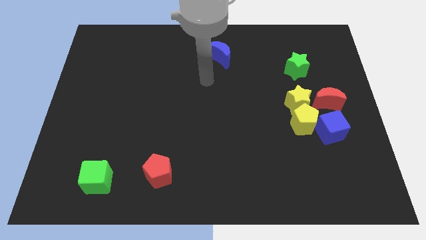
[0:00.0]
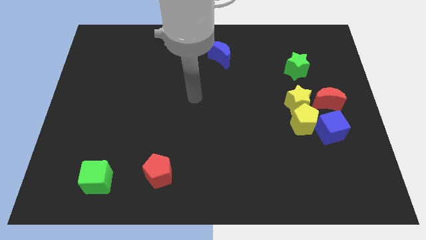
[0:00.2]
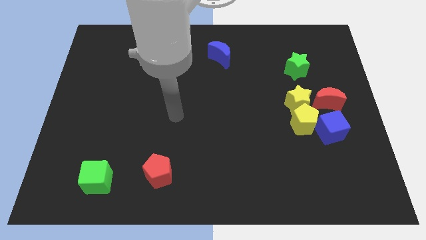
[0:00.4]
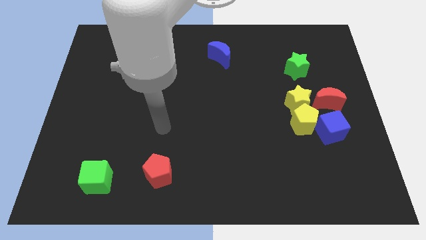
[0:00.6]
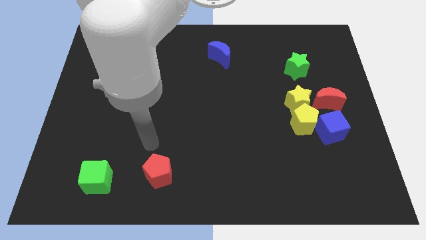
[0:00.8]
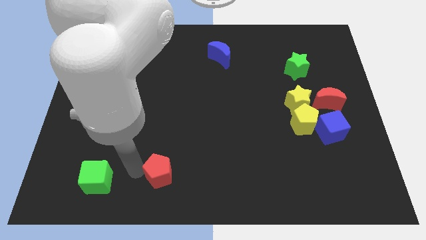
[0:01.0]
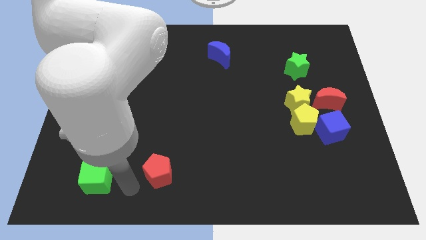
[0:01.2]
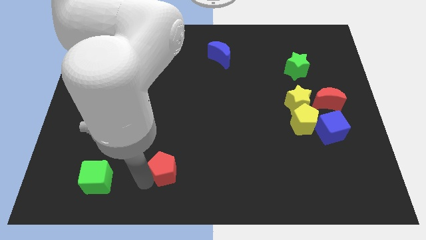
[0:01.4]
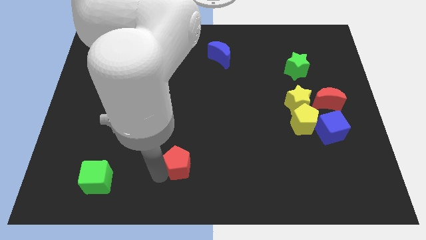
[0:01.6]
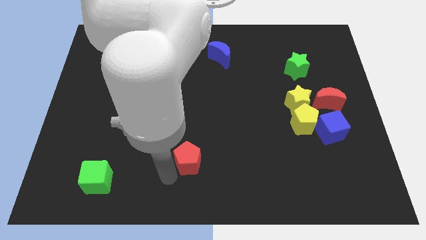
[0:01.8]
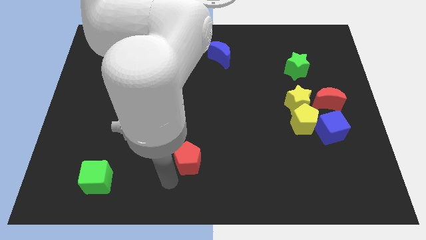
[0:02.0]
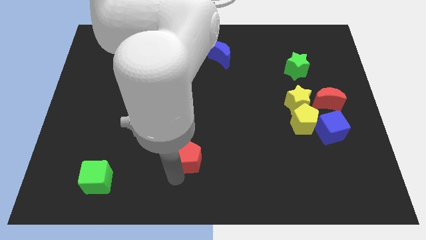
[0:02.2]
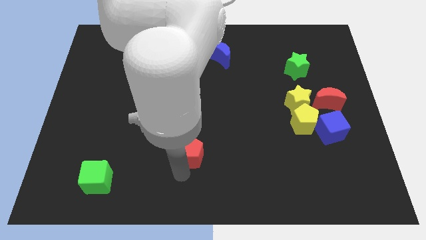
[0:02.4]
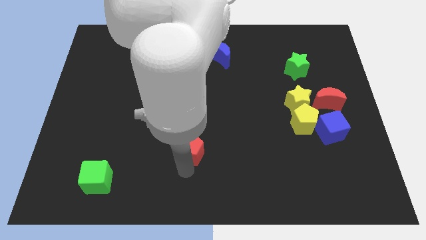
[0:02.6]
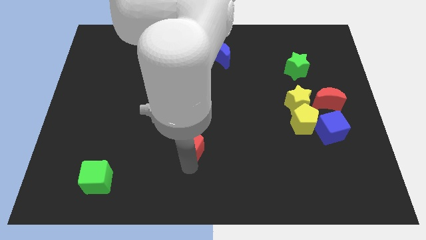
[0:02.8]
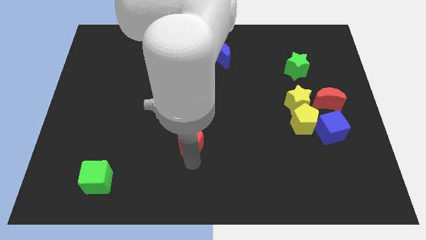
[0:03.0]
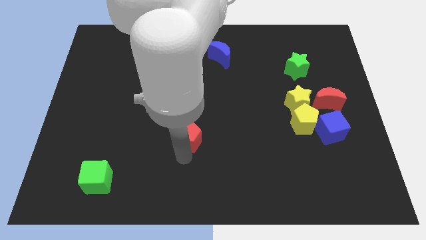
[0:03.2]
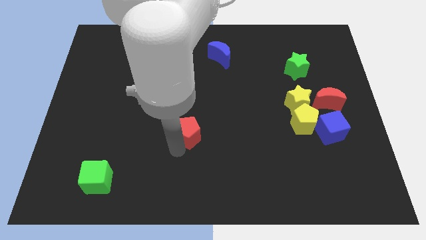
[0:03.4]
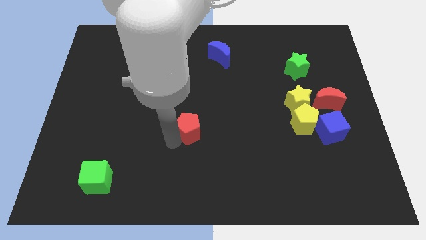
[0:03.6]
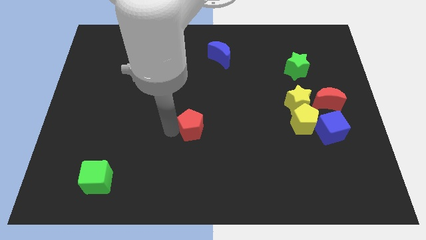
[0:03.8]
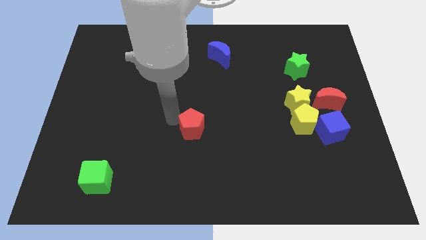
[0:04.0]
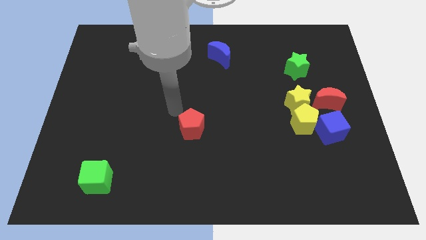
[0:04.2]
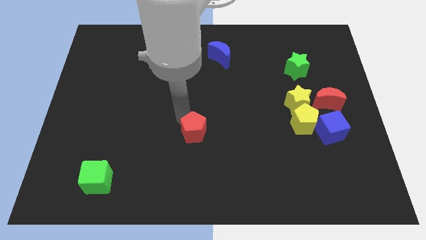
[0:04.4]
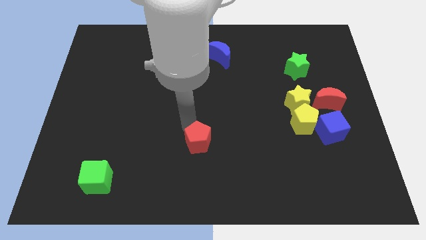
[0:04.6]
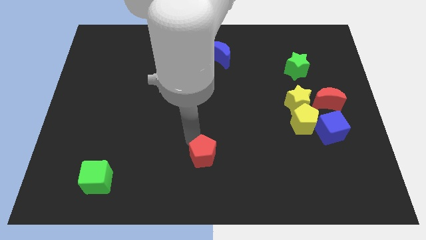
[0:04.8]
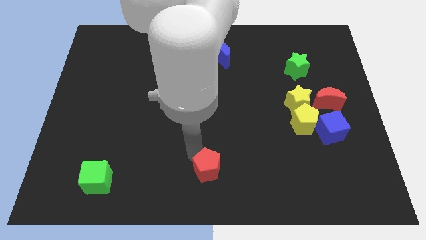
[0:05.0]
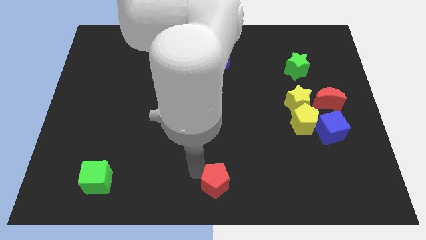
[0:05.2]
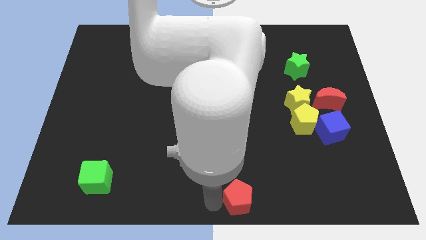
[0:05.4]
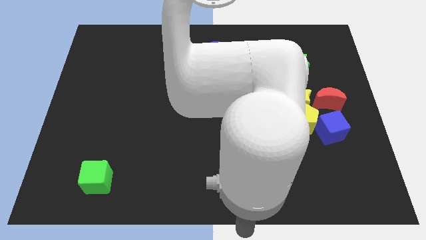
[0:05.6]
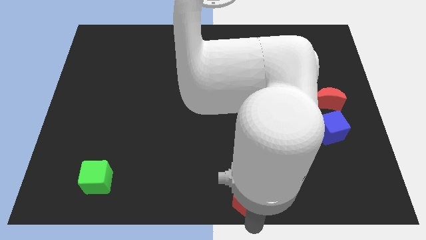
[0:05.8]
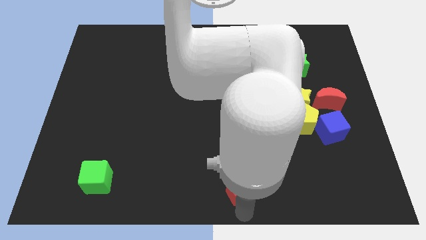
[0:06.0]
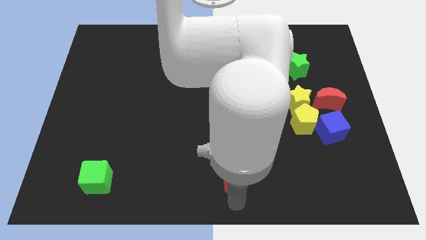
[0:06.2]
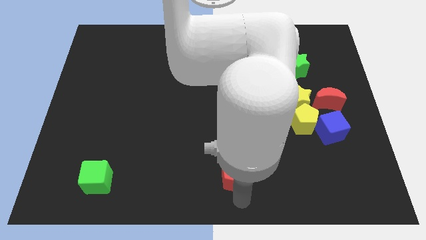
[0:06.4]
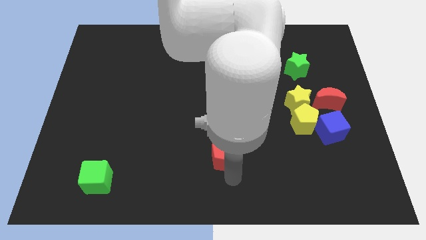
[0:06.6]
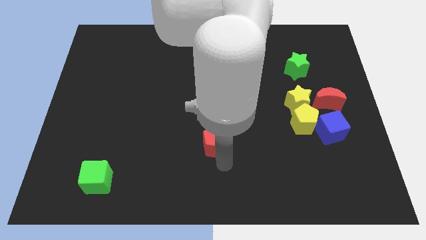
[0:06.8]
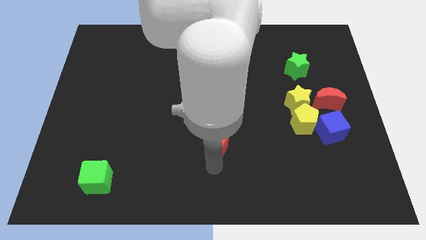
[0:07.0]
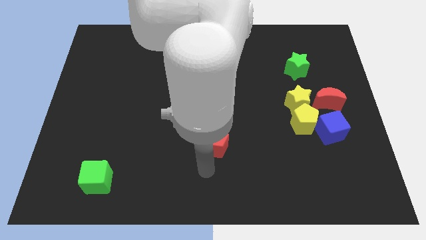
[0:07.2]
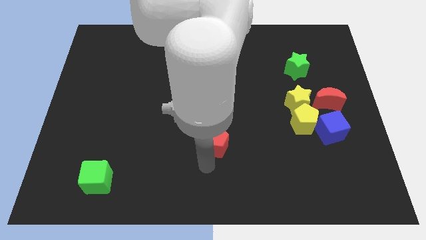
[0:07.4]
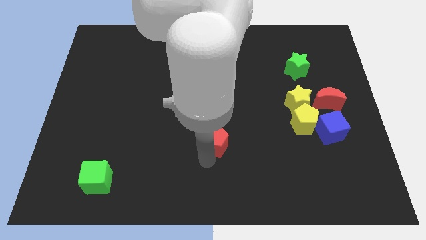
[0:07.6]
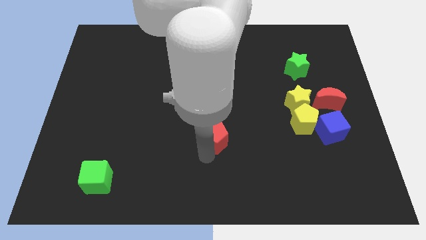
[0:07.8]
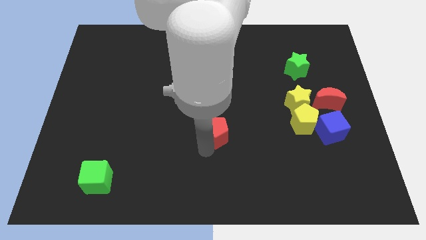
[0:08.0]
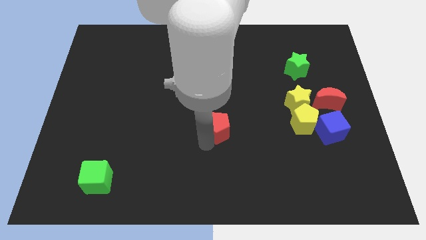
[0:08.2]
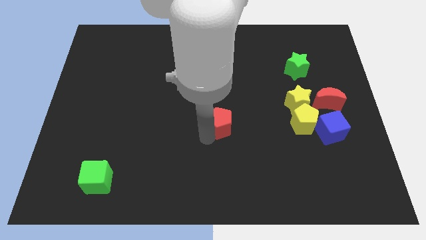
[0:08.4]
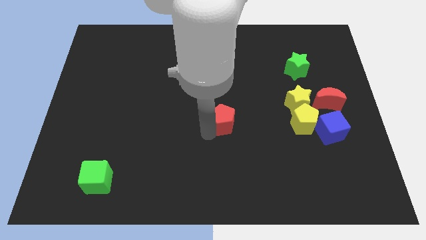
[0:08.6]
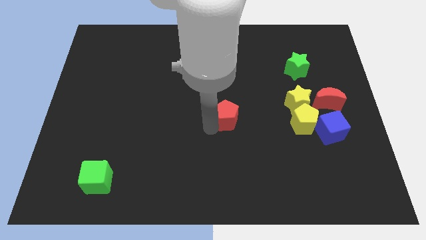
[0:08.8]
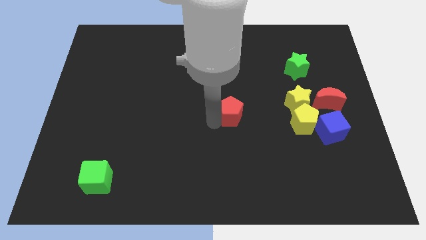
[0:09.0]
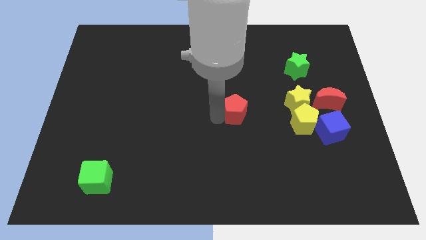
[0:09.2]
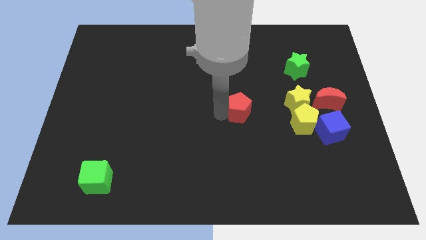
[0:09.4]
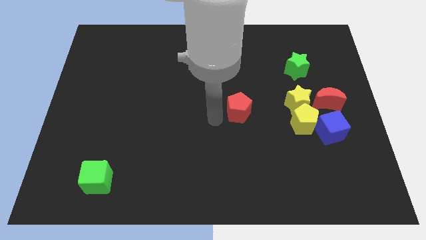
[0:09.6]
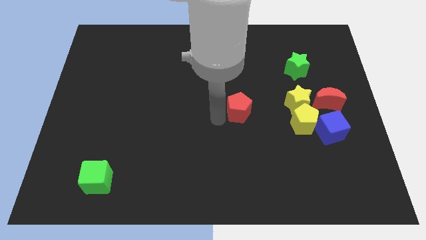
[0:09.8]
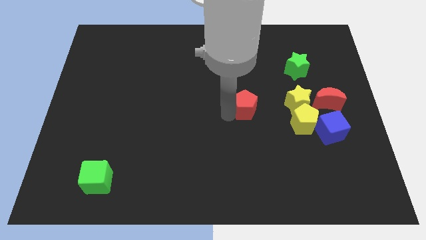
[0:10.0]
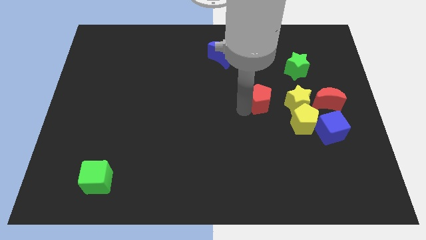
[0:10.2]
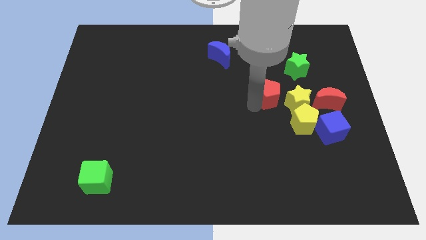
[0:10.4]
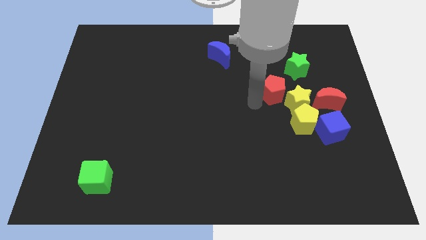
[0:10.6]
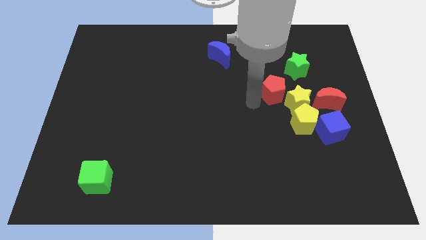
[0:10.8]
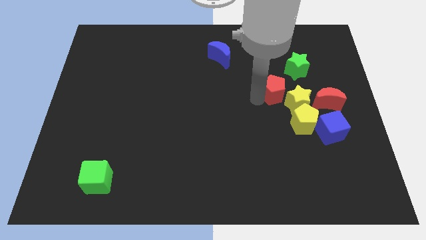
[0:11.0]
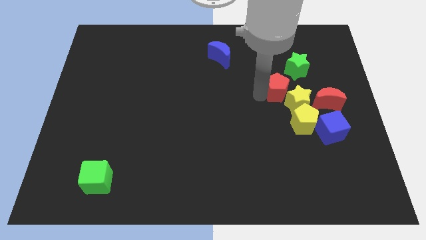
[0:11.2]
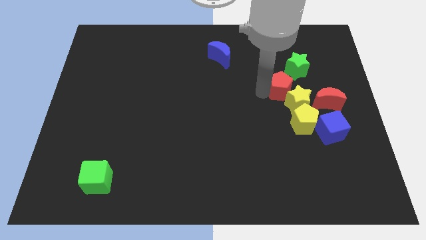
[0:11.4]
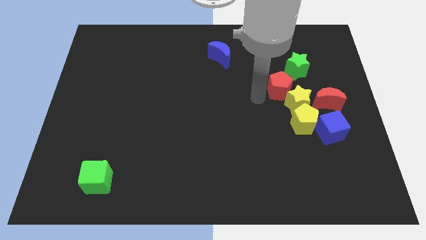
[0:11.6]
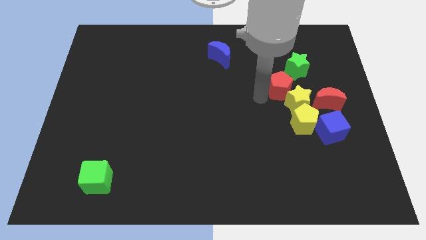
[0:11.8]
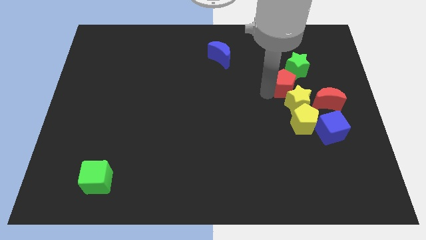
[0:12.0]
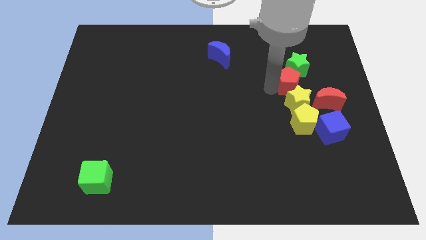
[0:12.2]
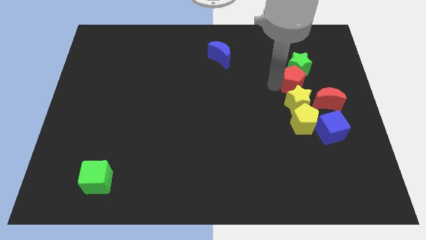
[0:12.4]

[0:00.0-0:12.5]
slide the red pentagon diagonally up and to the right of the yellow star
